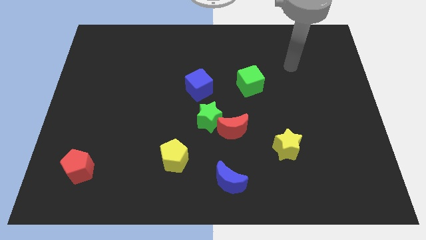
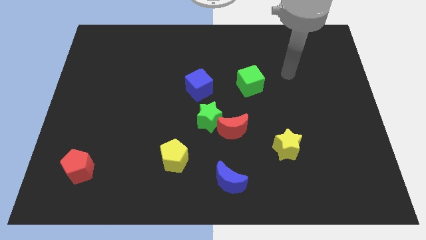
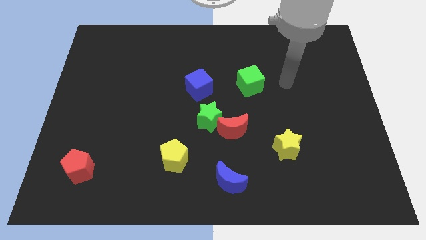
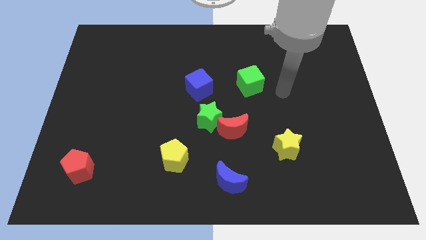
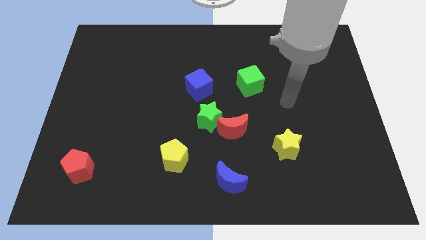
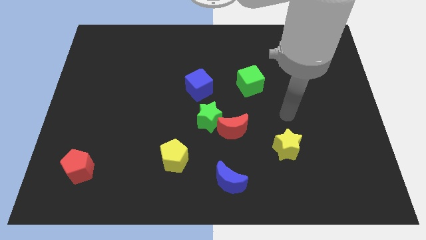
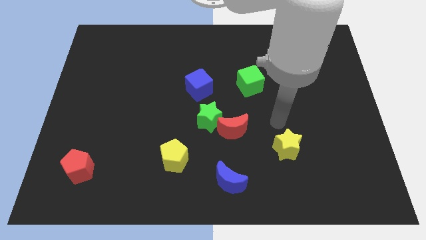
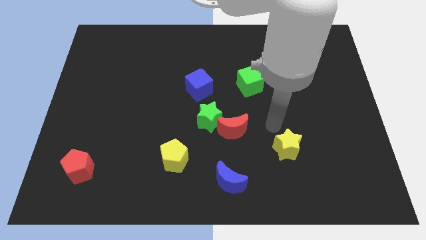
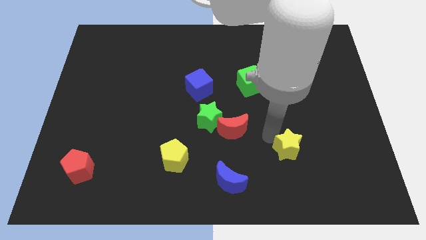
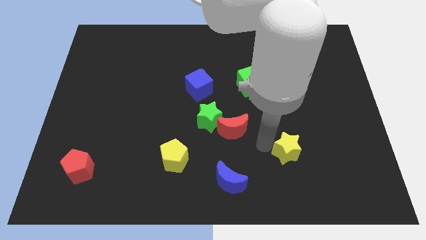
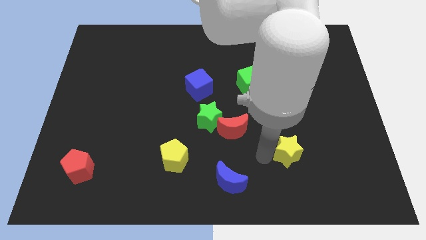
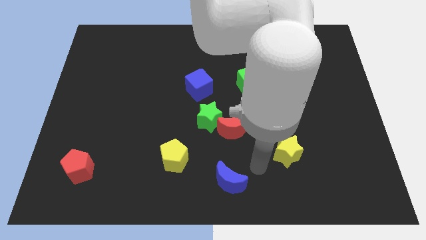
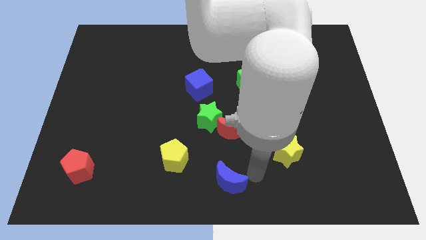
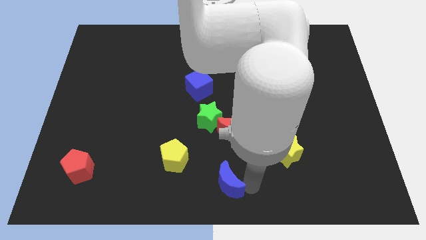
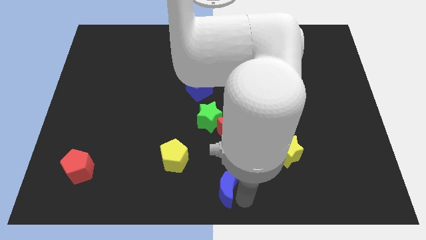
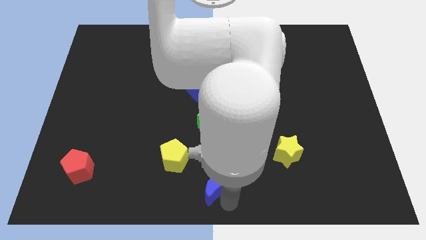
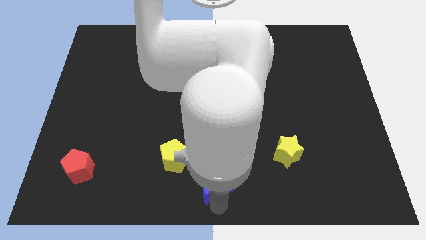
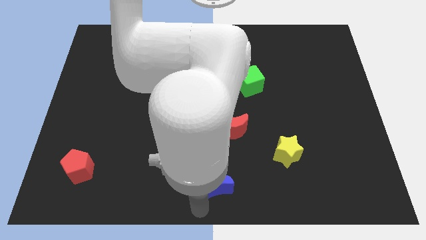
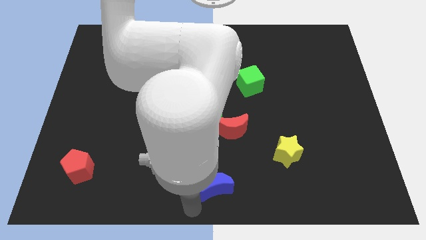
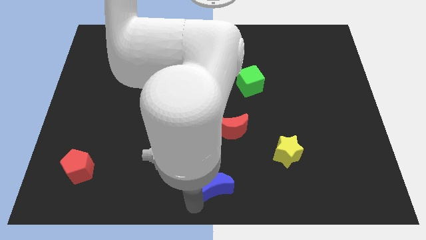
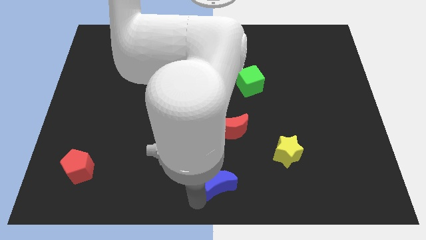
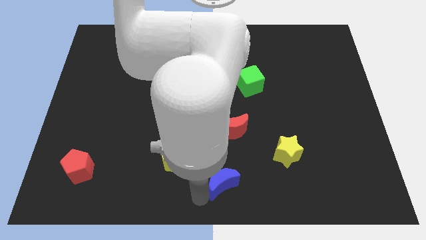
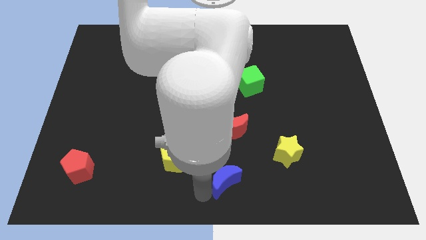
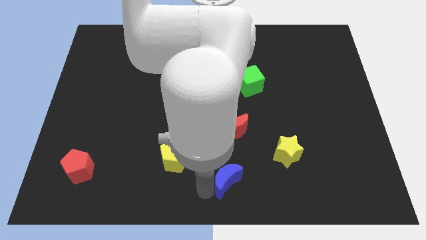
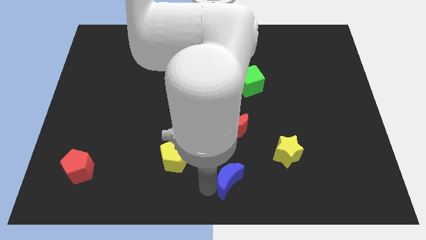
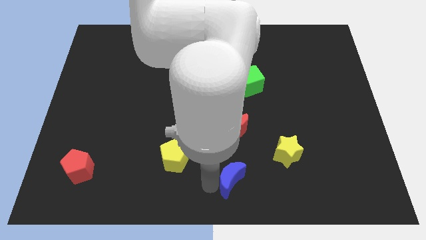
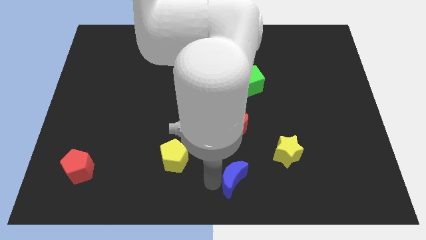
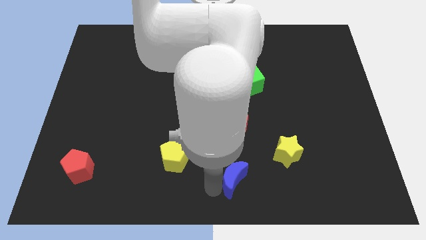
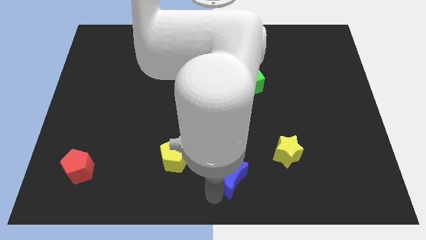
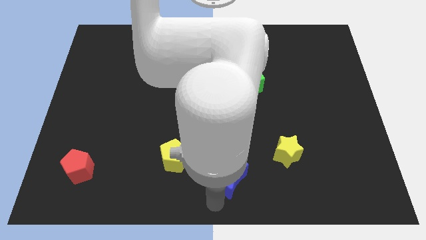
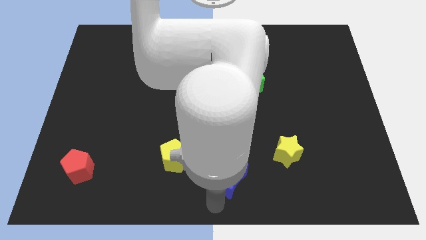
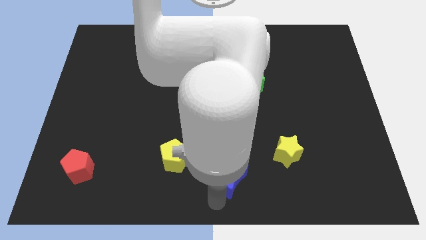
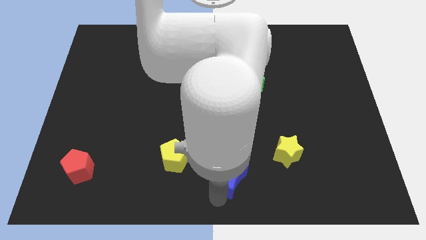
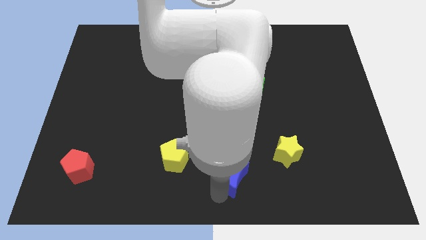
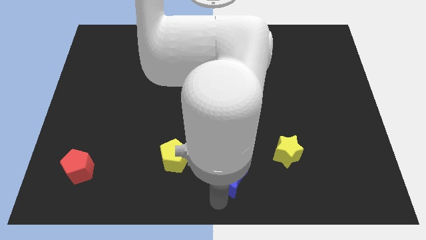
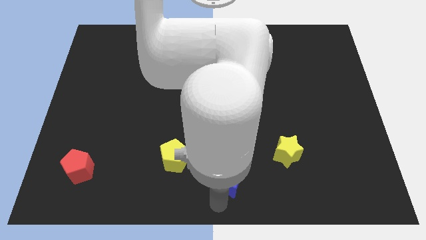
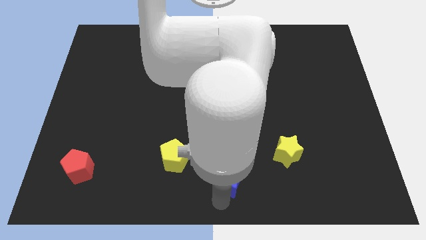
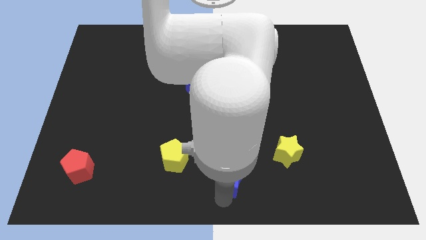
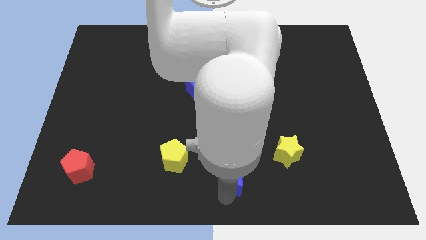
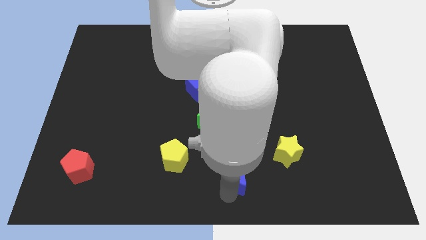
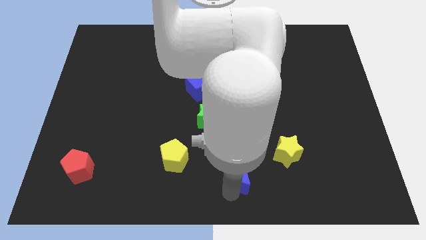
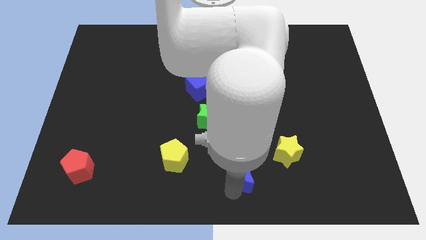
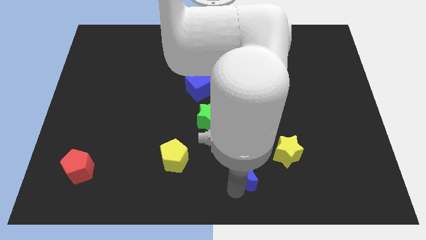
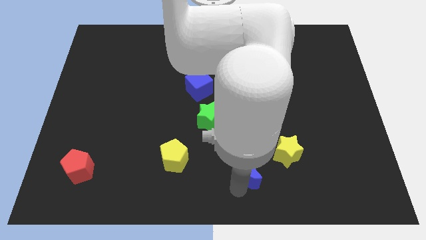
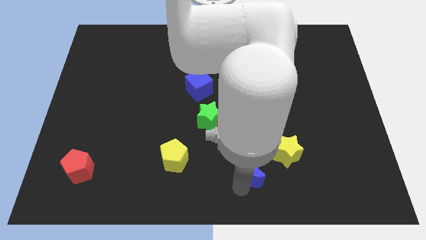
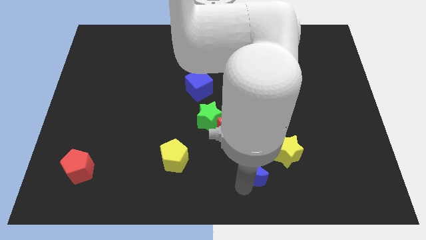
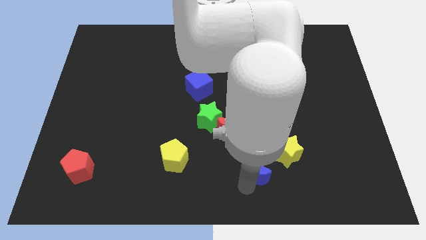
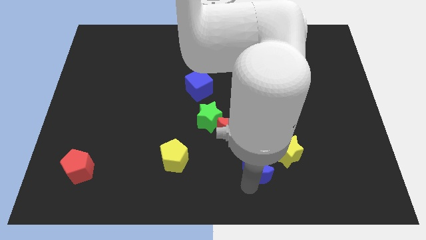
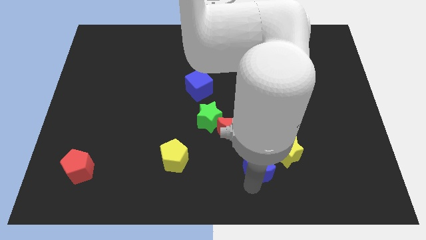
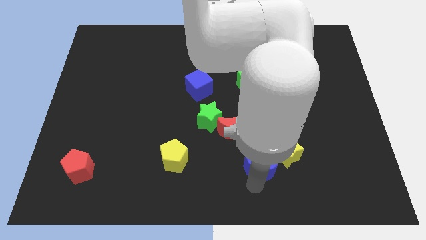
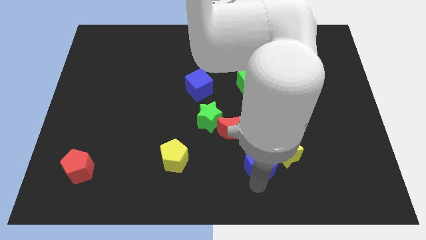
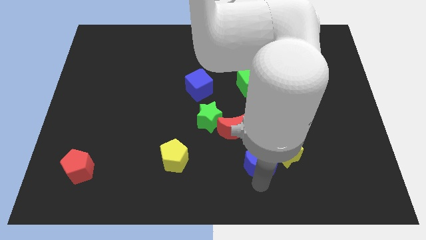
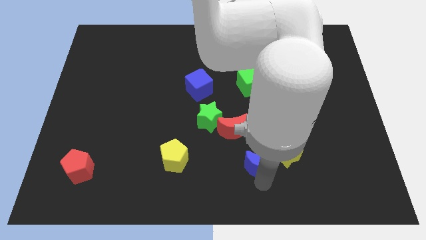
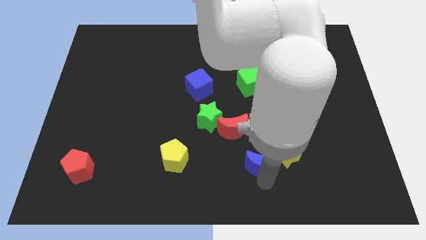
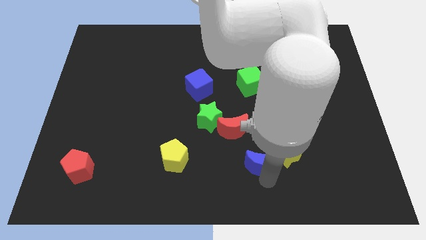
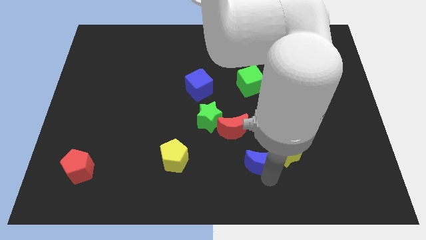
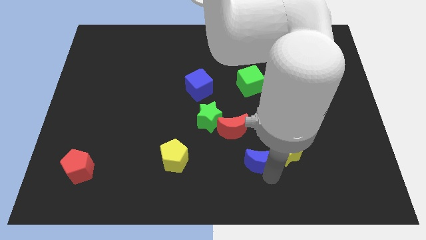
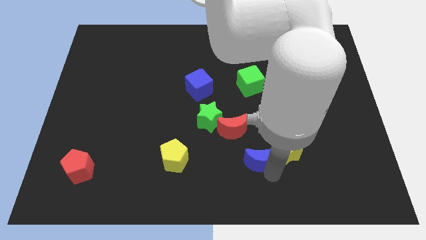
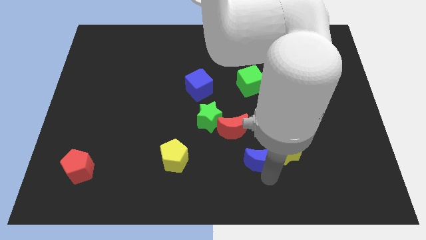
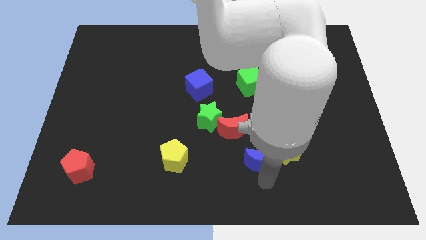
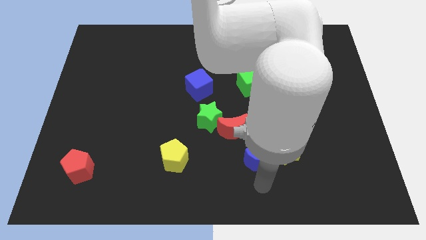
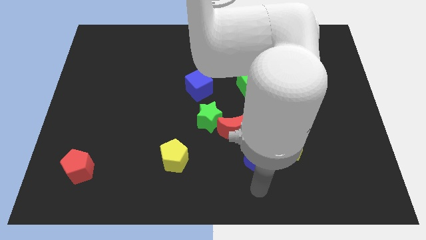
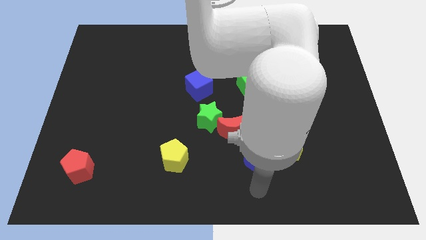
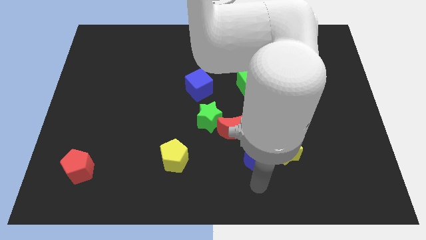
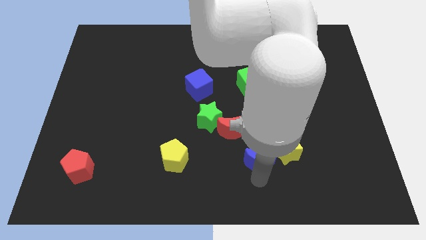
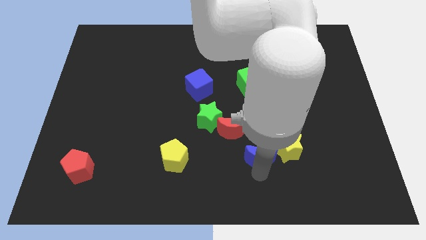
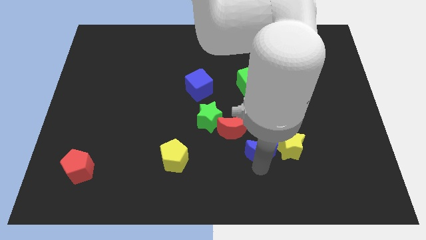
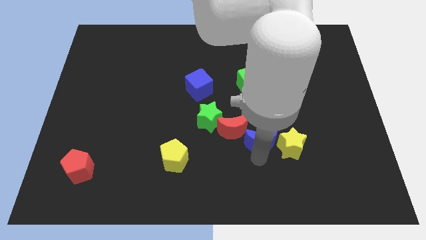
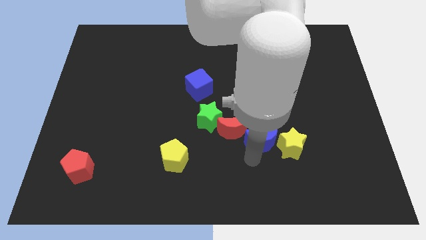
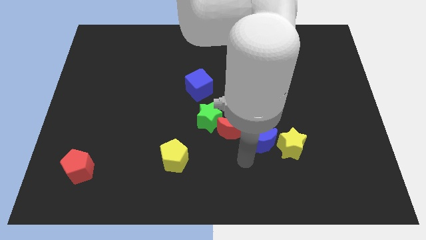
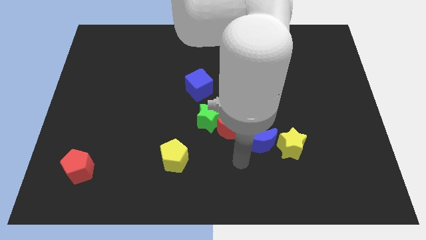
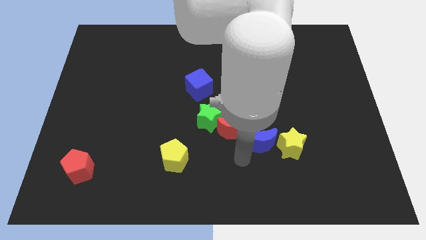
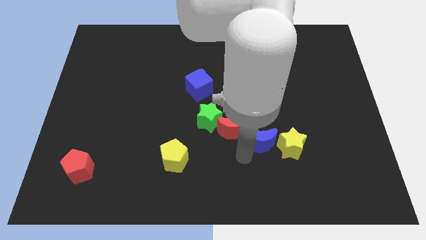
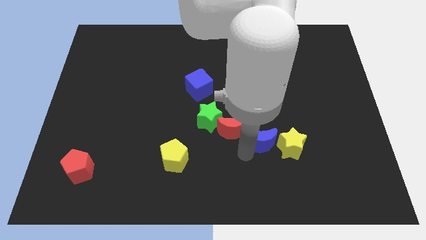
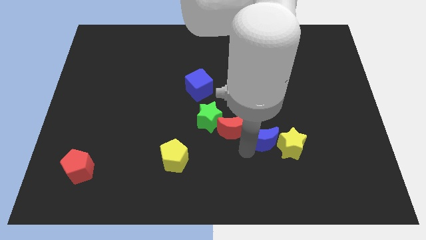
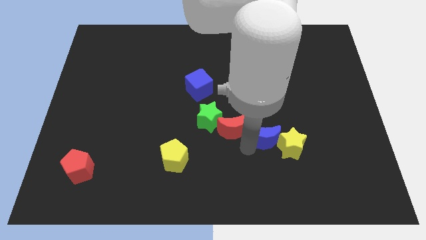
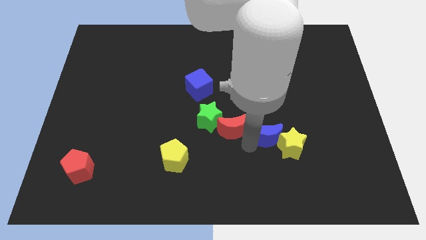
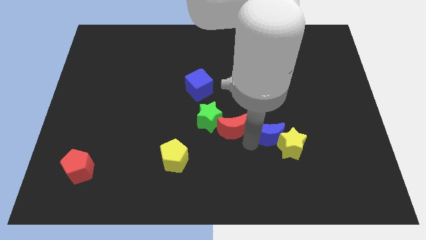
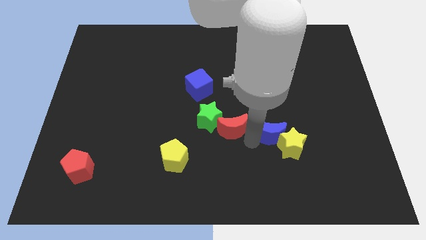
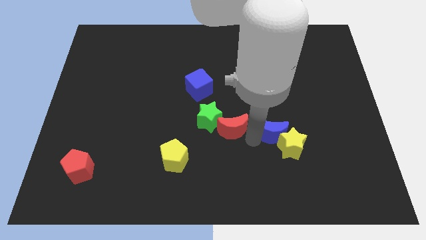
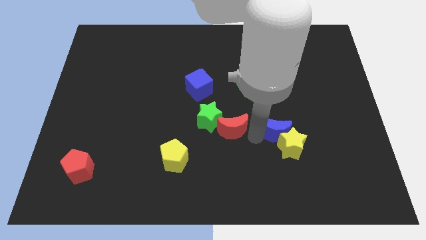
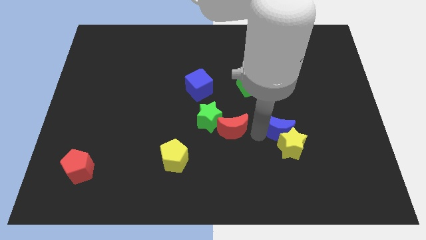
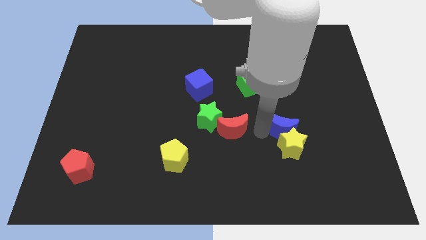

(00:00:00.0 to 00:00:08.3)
push the blue moon to the top right side of the yellow star
